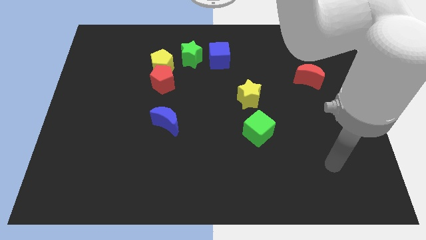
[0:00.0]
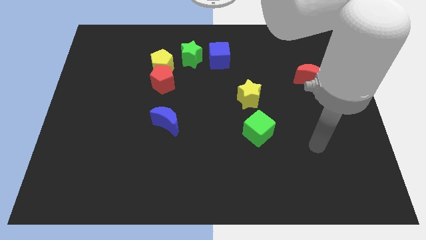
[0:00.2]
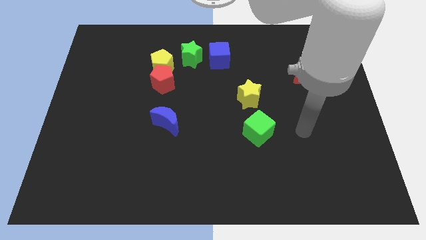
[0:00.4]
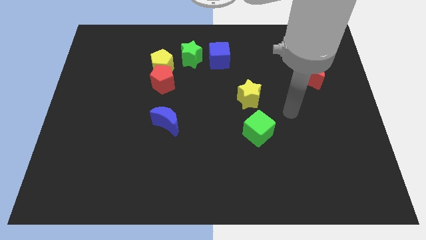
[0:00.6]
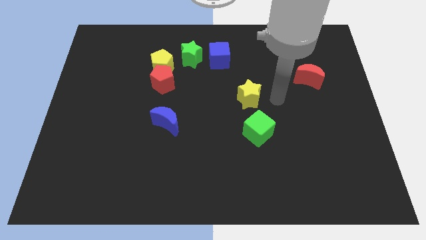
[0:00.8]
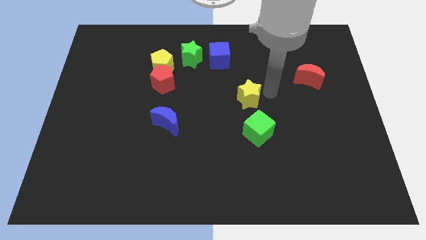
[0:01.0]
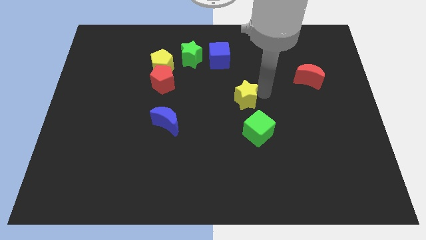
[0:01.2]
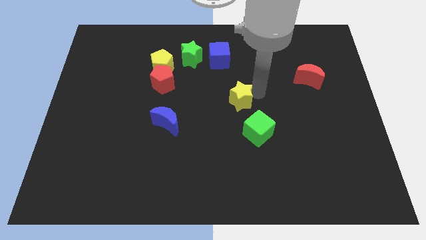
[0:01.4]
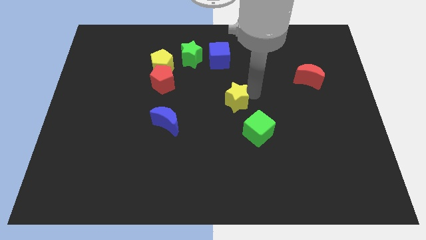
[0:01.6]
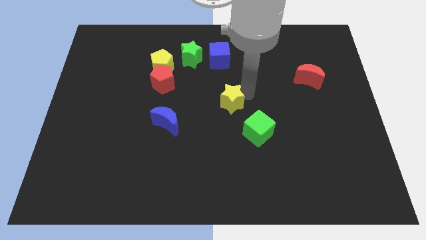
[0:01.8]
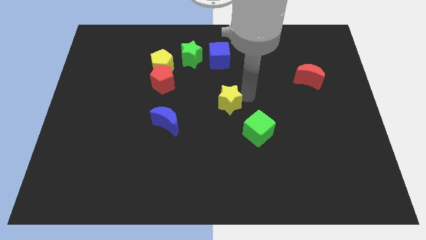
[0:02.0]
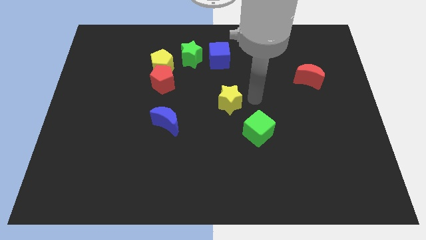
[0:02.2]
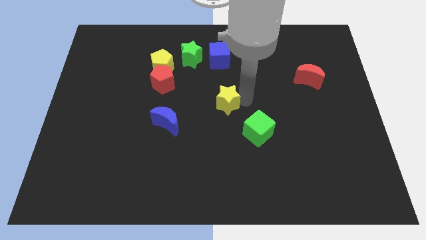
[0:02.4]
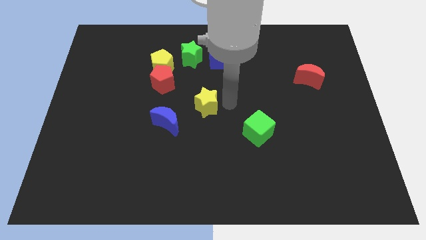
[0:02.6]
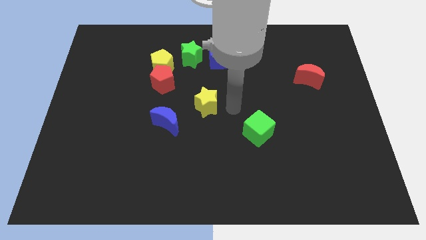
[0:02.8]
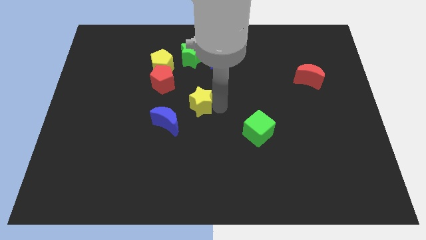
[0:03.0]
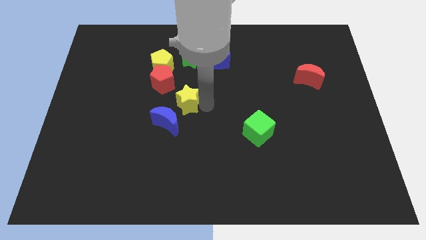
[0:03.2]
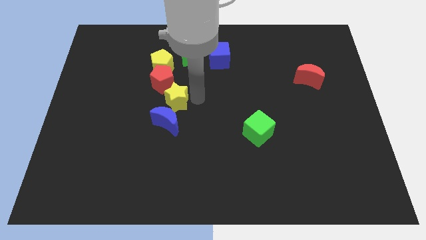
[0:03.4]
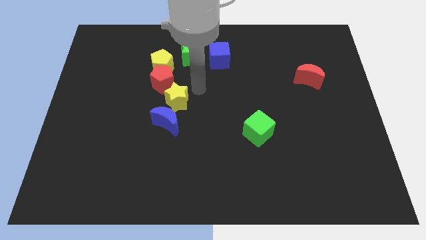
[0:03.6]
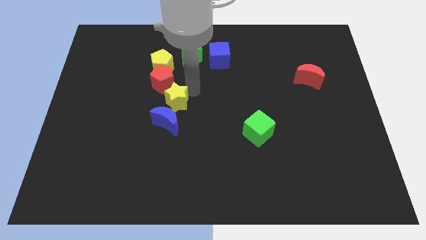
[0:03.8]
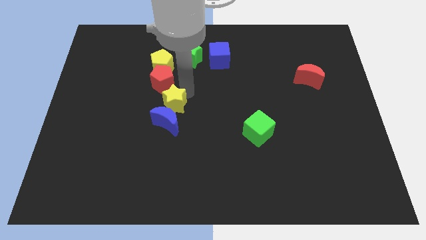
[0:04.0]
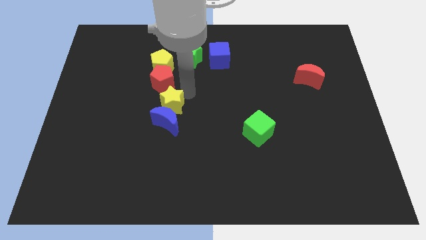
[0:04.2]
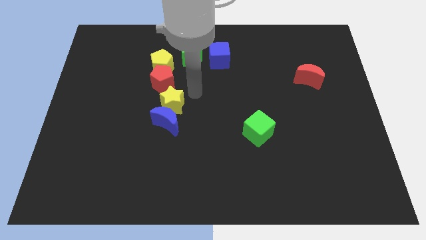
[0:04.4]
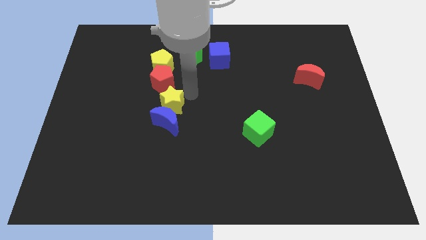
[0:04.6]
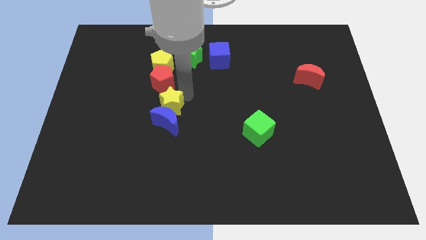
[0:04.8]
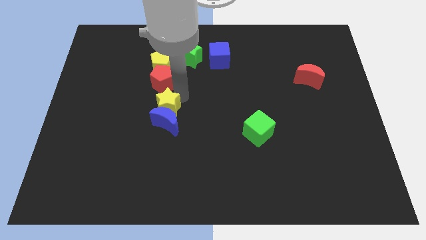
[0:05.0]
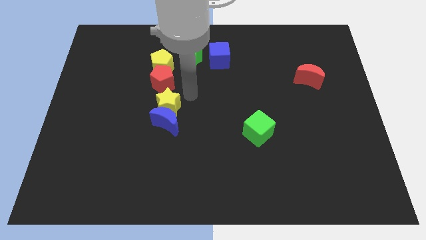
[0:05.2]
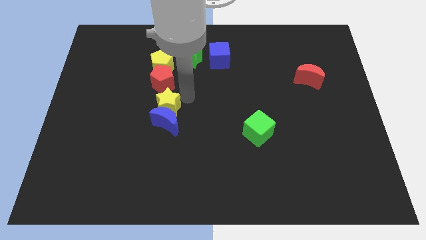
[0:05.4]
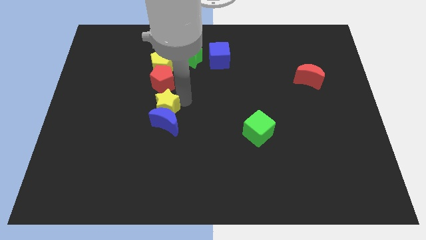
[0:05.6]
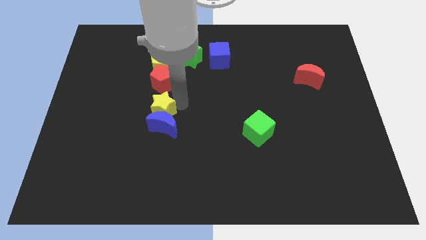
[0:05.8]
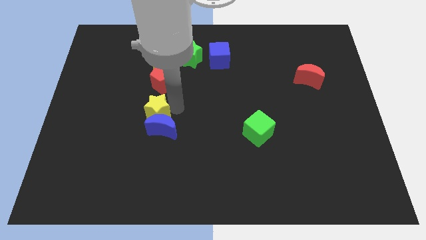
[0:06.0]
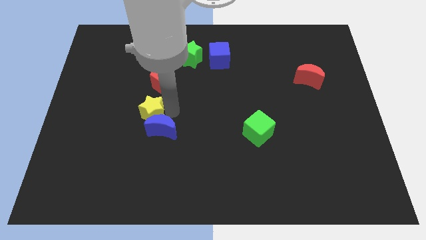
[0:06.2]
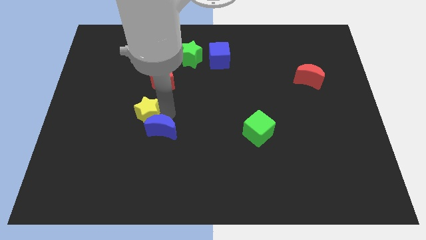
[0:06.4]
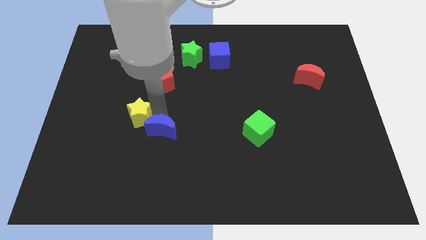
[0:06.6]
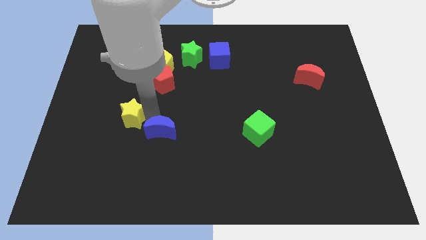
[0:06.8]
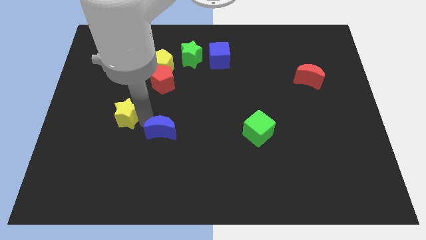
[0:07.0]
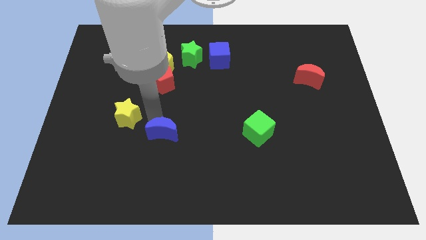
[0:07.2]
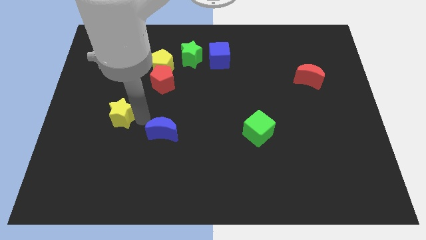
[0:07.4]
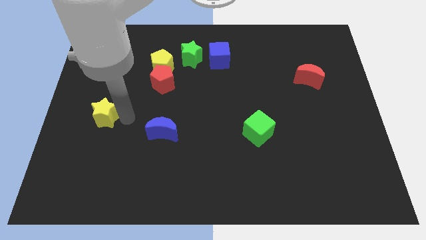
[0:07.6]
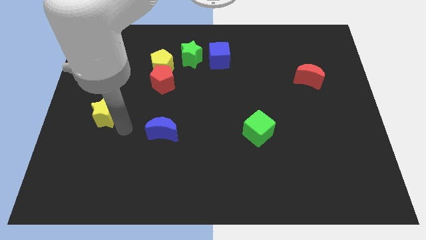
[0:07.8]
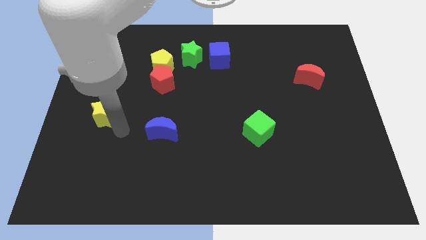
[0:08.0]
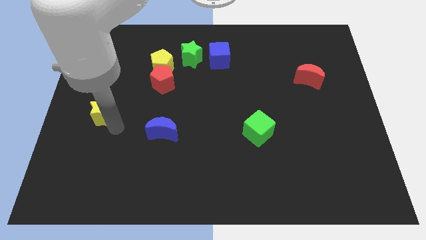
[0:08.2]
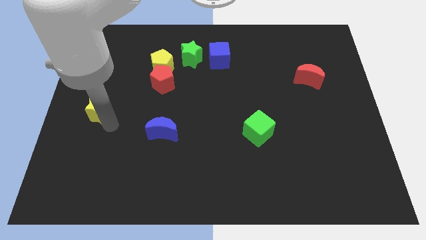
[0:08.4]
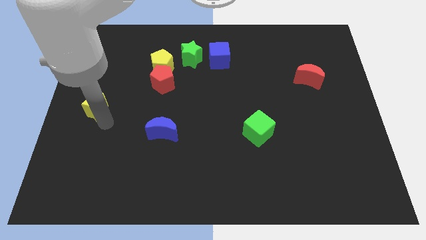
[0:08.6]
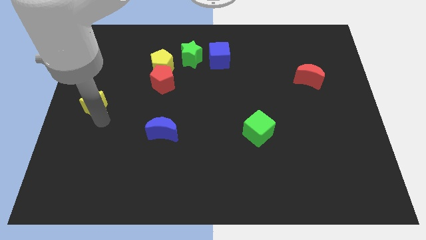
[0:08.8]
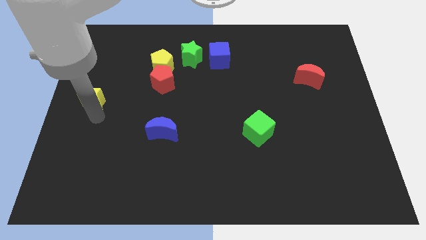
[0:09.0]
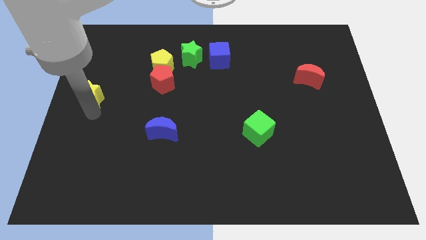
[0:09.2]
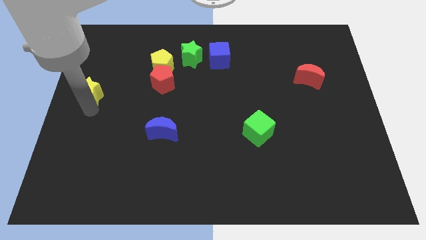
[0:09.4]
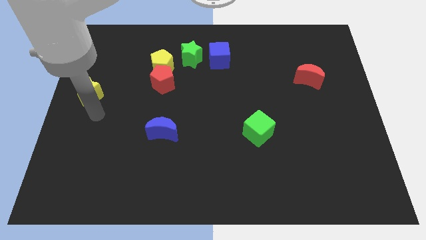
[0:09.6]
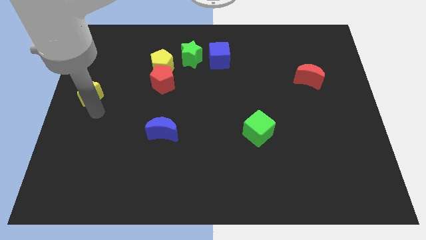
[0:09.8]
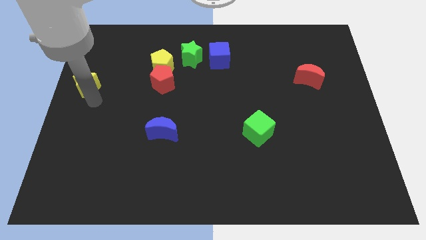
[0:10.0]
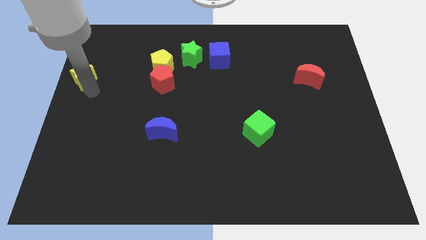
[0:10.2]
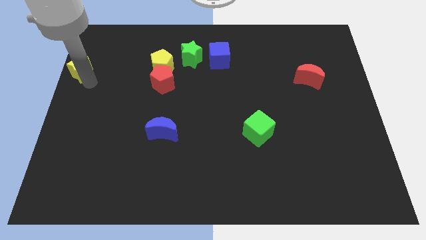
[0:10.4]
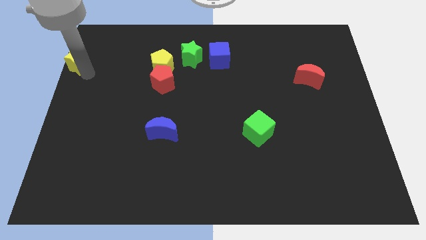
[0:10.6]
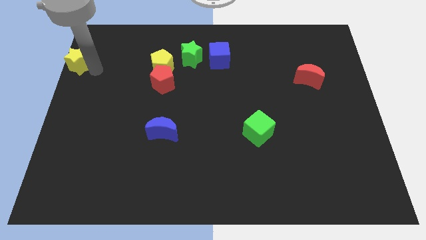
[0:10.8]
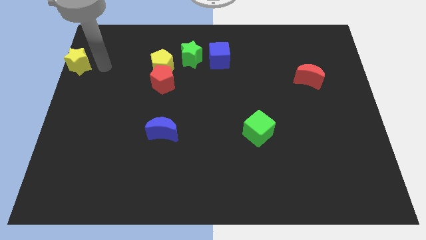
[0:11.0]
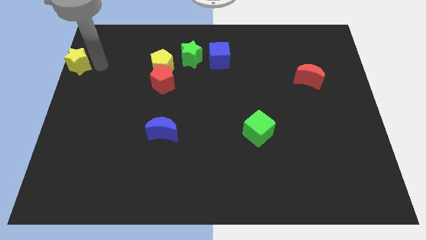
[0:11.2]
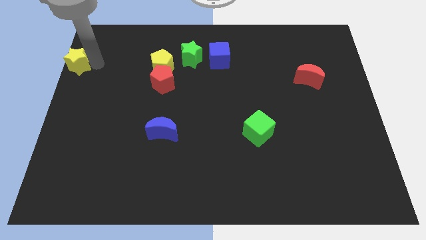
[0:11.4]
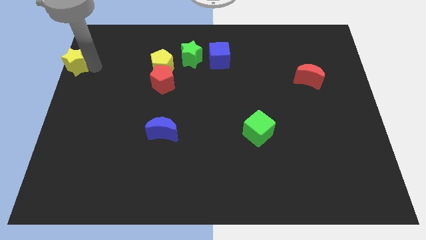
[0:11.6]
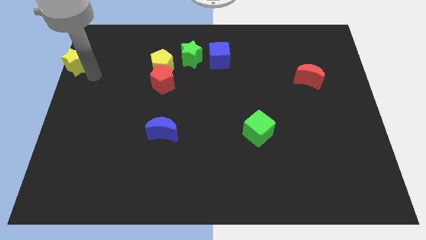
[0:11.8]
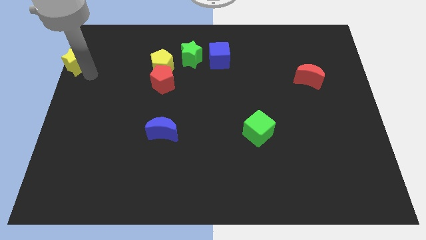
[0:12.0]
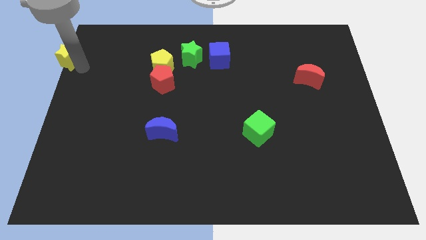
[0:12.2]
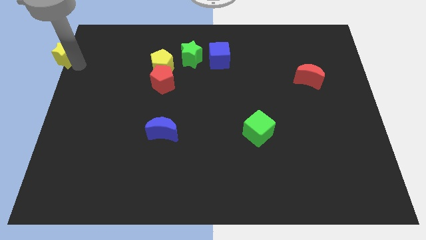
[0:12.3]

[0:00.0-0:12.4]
put the yellow star to the top left of the board

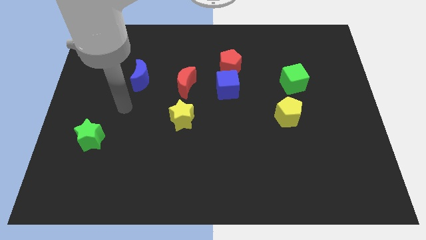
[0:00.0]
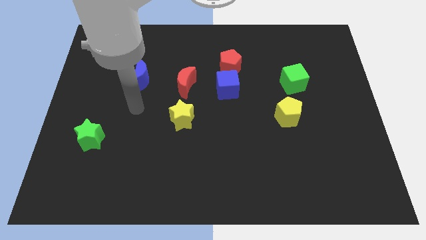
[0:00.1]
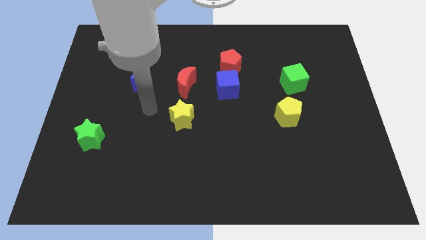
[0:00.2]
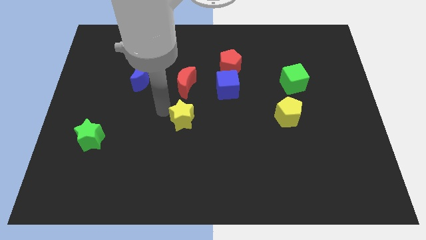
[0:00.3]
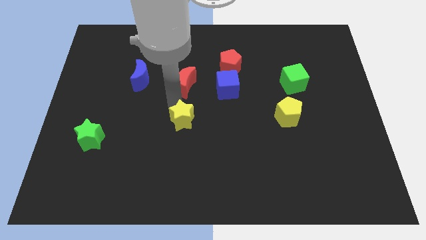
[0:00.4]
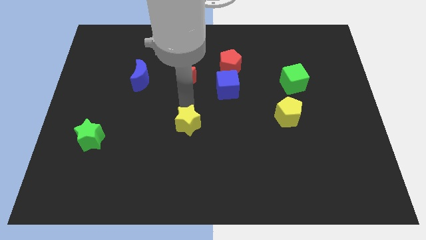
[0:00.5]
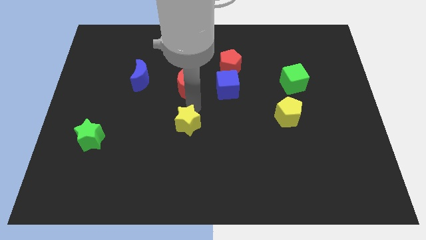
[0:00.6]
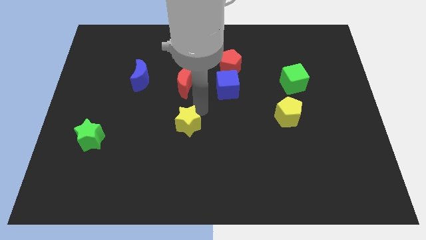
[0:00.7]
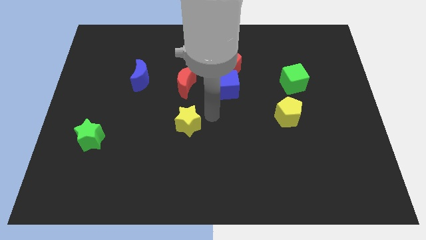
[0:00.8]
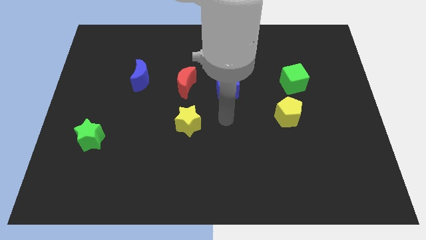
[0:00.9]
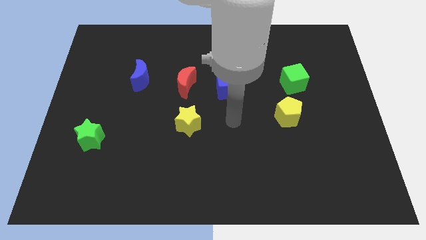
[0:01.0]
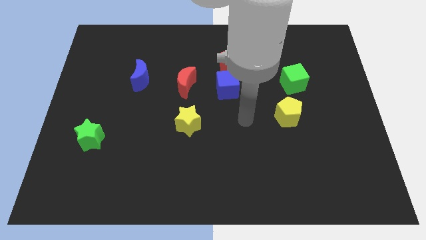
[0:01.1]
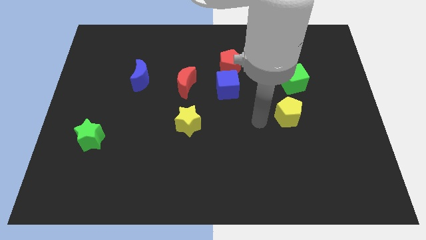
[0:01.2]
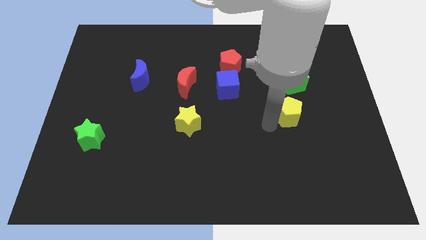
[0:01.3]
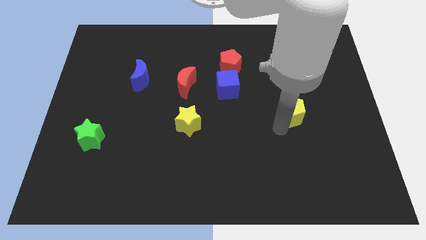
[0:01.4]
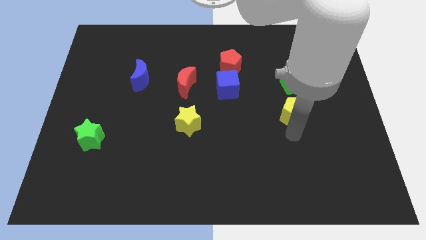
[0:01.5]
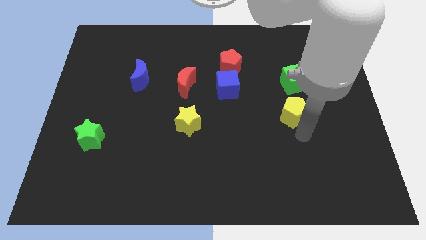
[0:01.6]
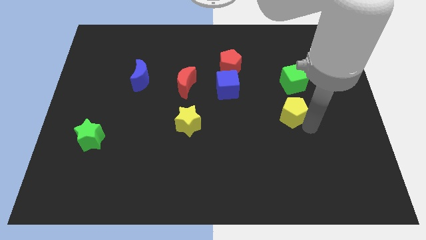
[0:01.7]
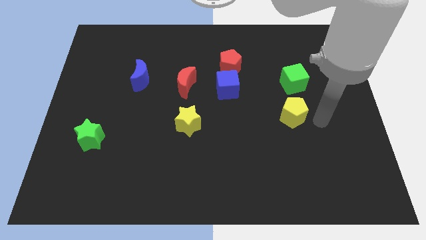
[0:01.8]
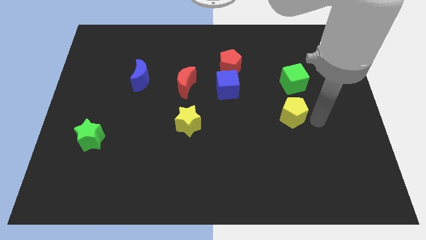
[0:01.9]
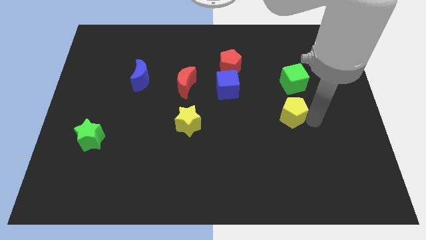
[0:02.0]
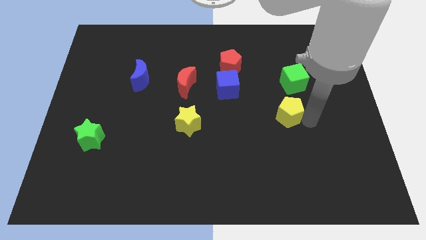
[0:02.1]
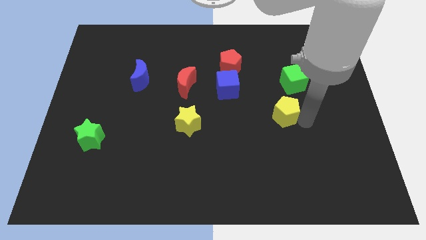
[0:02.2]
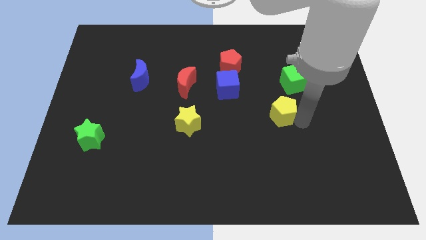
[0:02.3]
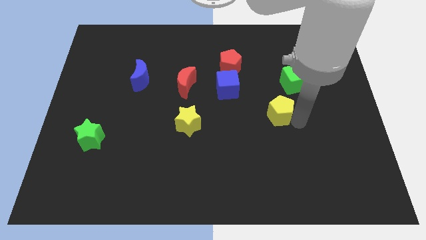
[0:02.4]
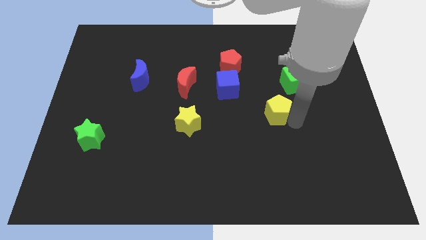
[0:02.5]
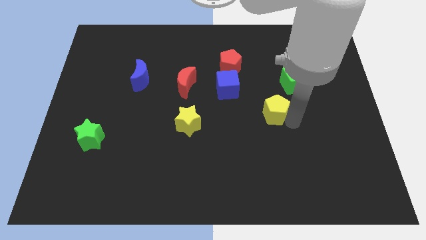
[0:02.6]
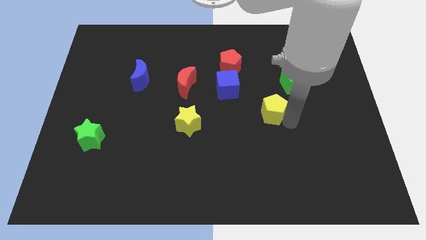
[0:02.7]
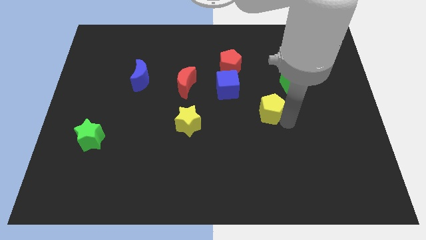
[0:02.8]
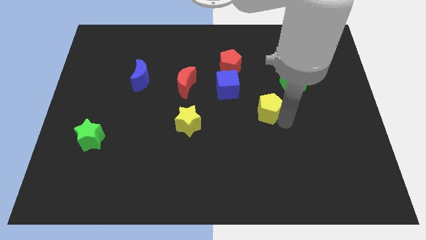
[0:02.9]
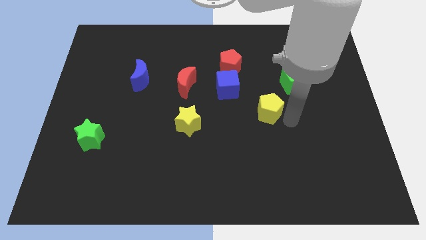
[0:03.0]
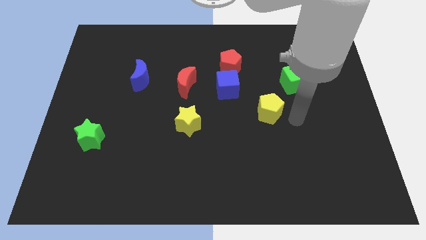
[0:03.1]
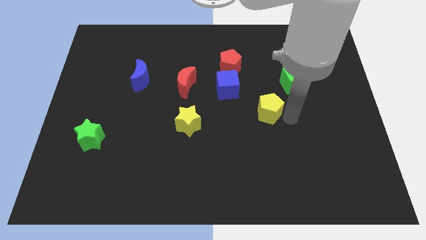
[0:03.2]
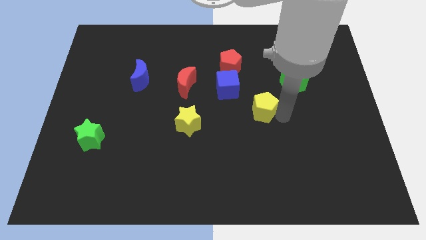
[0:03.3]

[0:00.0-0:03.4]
push the yellow pentagon to the middle of the board
